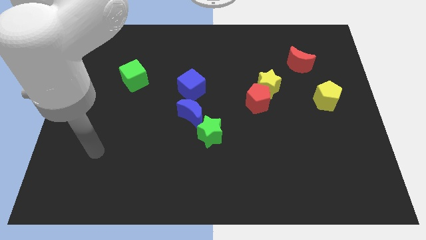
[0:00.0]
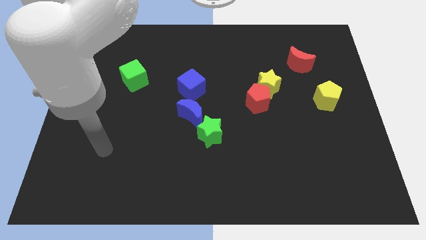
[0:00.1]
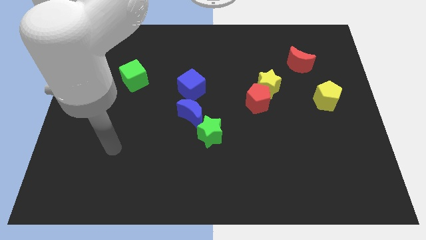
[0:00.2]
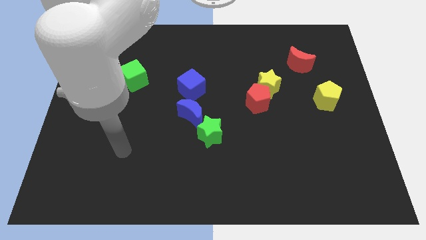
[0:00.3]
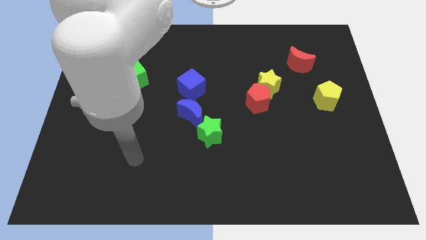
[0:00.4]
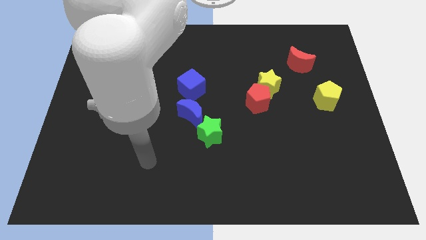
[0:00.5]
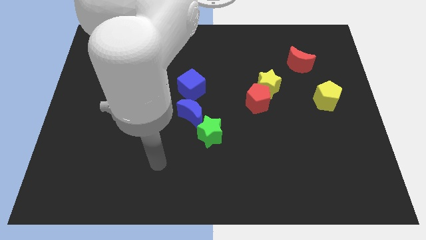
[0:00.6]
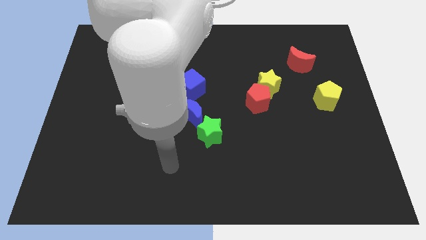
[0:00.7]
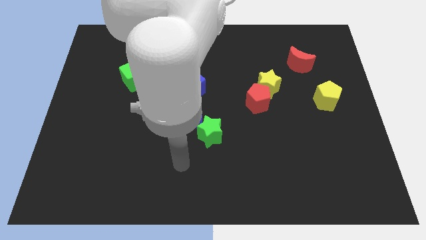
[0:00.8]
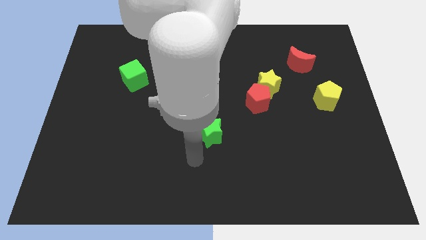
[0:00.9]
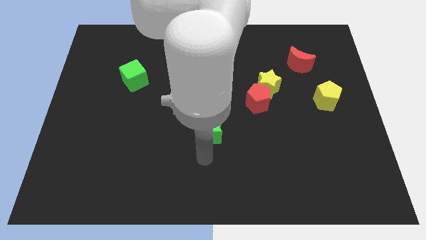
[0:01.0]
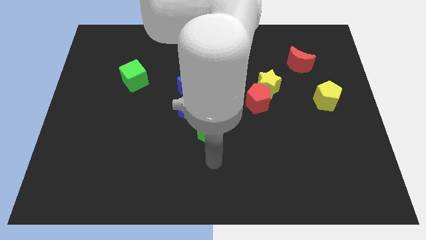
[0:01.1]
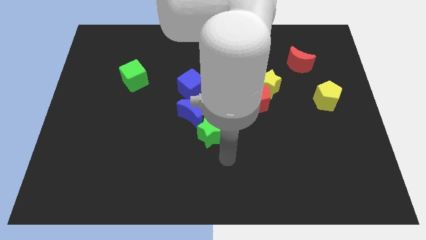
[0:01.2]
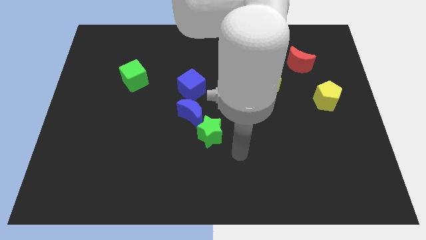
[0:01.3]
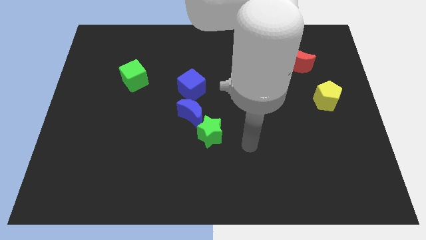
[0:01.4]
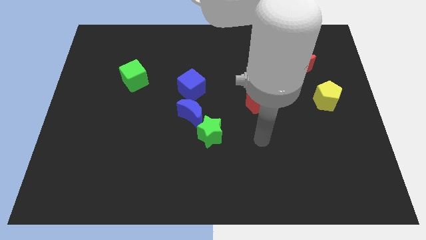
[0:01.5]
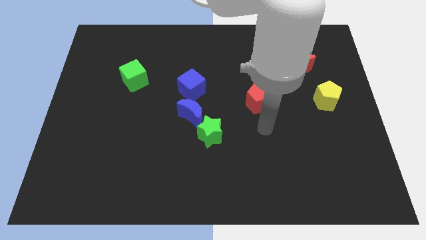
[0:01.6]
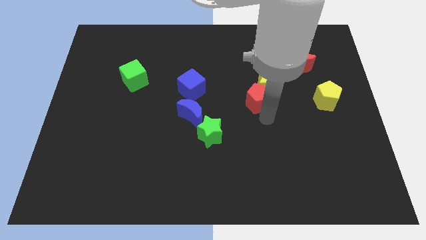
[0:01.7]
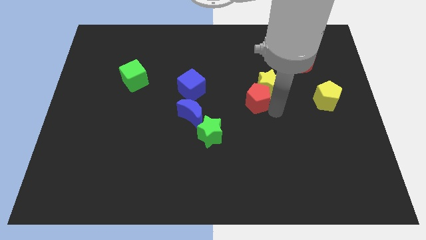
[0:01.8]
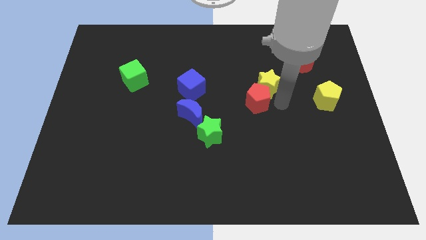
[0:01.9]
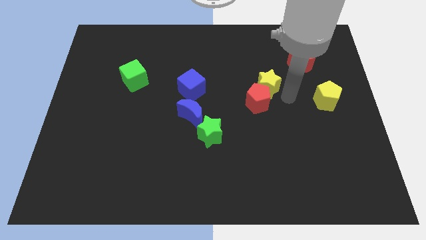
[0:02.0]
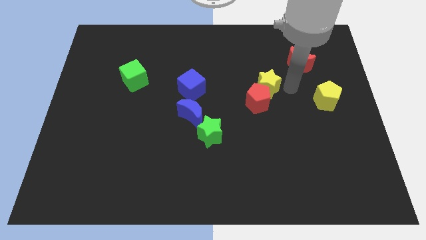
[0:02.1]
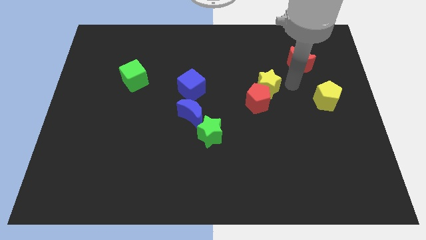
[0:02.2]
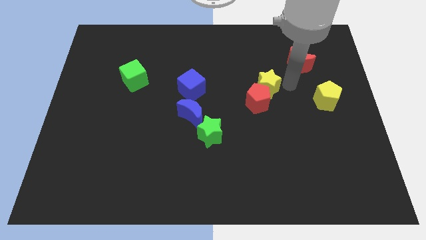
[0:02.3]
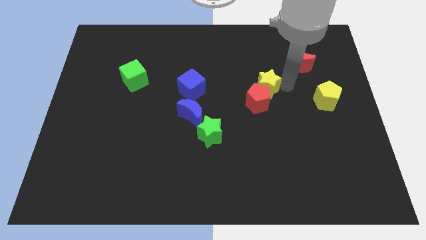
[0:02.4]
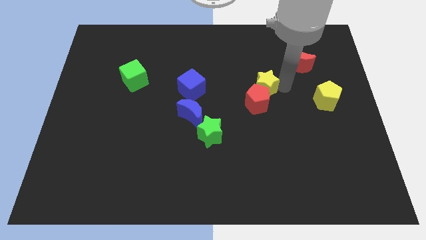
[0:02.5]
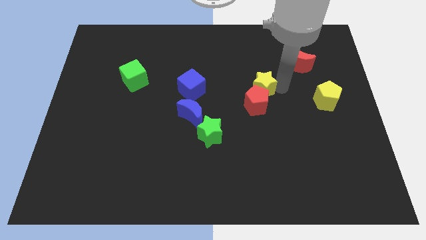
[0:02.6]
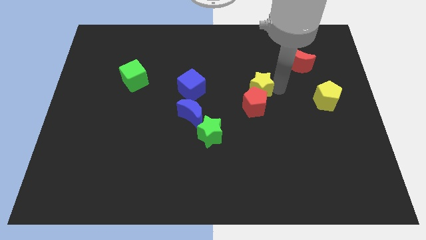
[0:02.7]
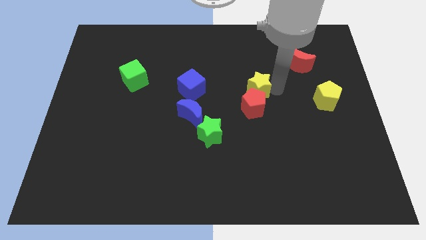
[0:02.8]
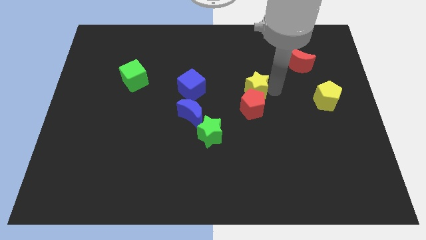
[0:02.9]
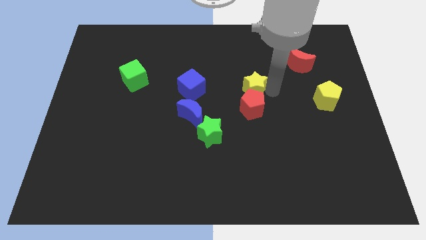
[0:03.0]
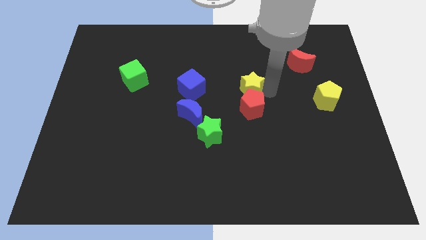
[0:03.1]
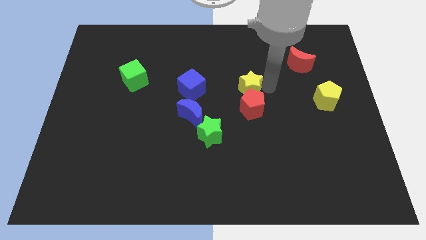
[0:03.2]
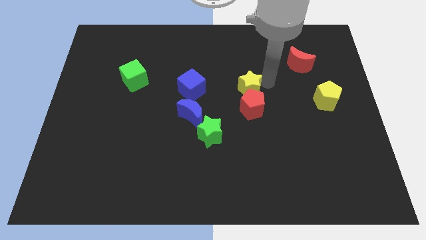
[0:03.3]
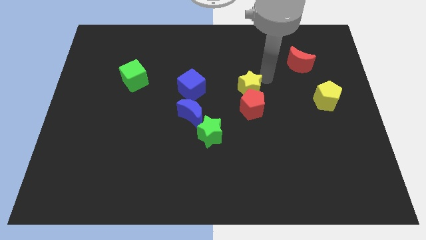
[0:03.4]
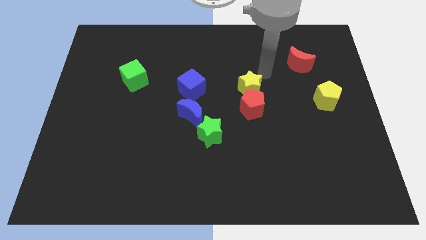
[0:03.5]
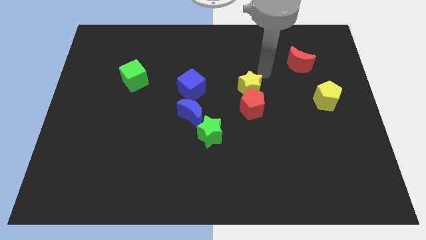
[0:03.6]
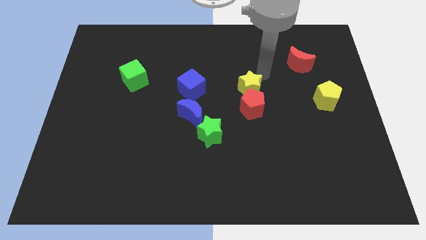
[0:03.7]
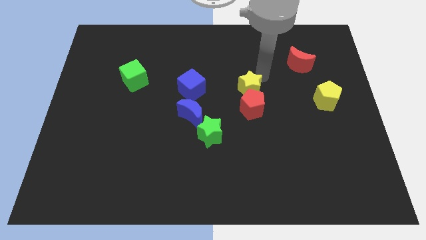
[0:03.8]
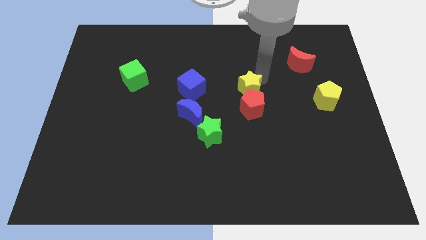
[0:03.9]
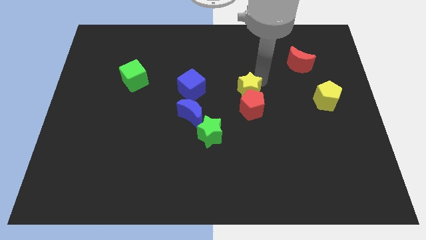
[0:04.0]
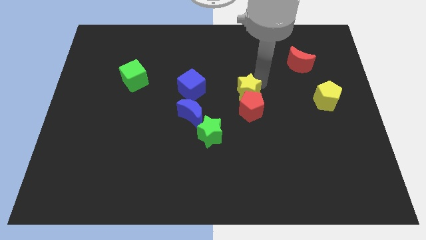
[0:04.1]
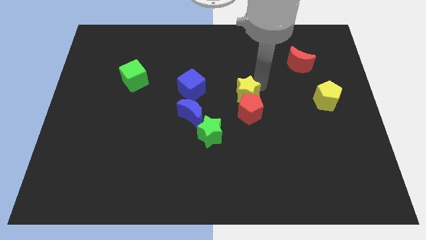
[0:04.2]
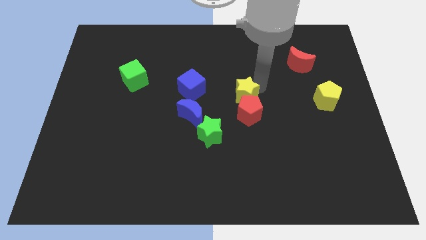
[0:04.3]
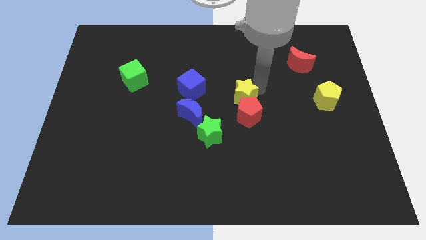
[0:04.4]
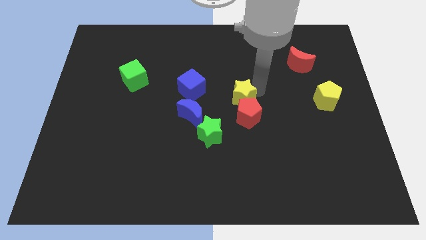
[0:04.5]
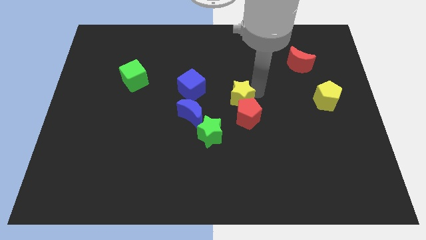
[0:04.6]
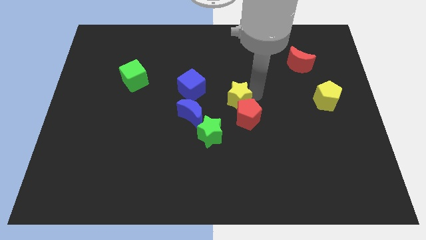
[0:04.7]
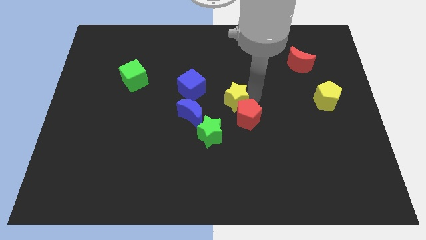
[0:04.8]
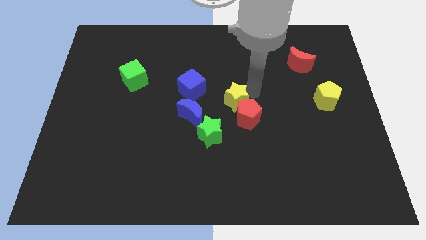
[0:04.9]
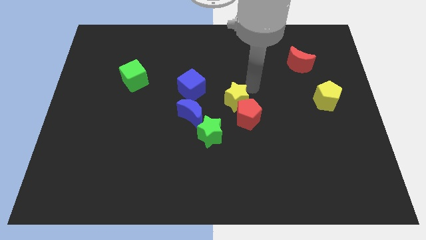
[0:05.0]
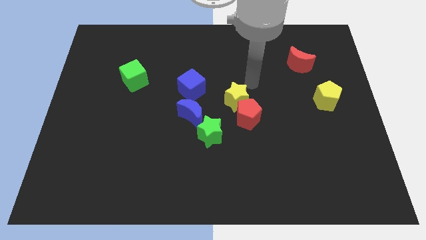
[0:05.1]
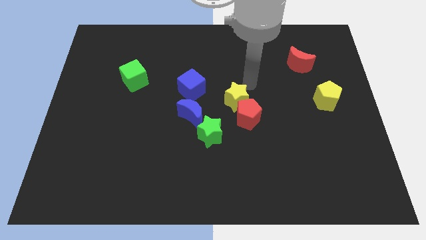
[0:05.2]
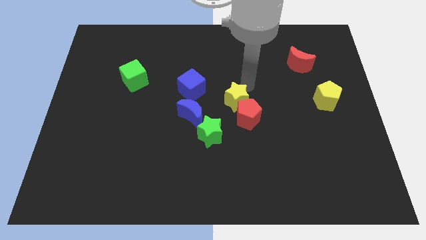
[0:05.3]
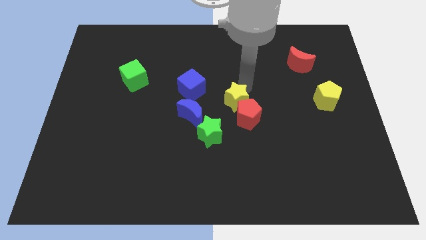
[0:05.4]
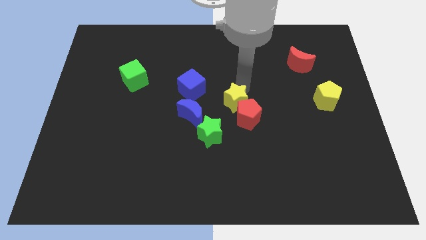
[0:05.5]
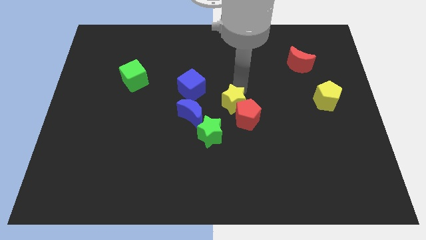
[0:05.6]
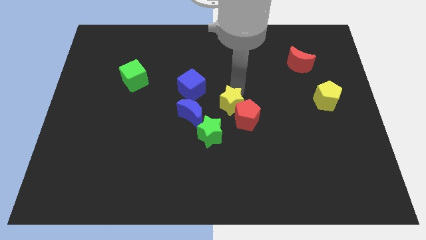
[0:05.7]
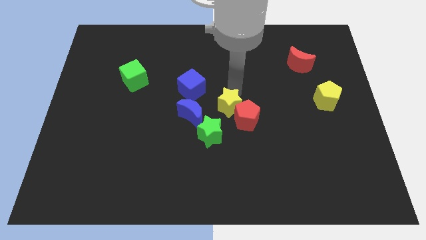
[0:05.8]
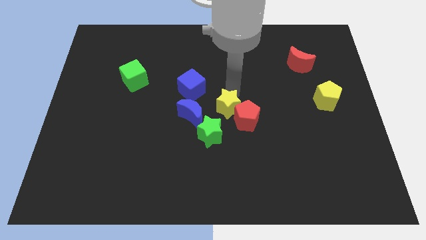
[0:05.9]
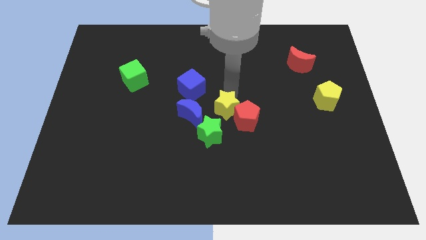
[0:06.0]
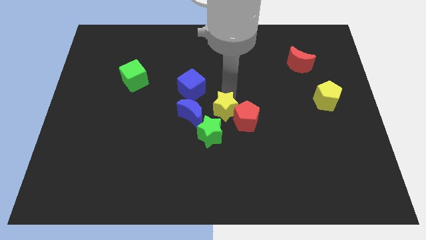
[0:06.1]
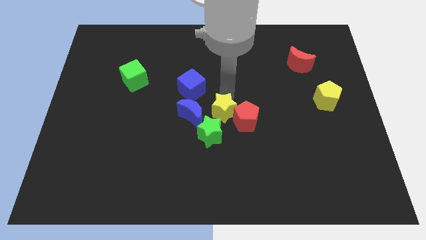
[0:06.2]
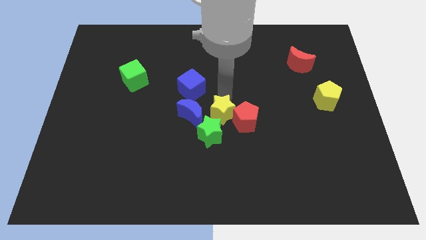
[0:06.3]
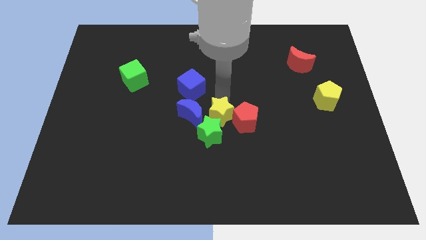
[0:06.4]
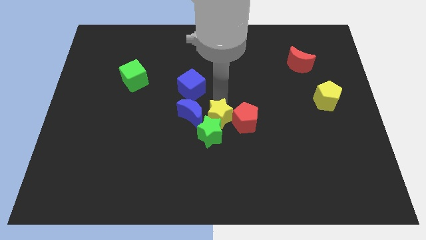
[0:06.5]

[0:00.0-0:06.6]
move the yellow star to the green star

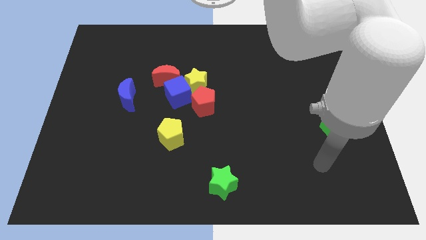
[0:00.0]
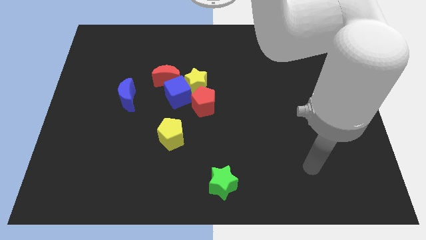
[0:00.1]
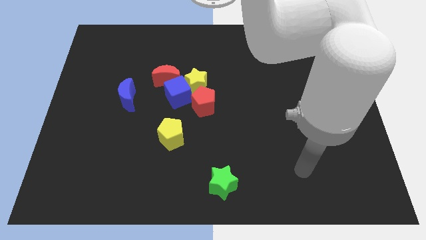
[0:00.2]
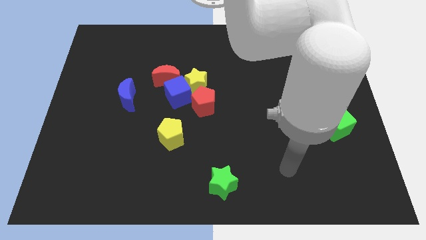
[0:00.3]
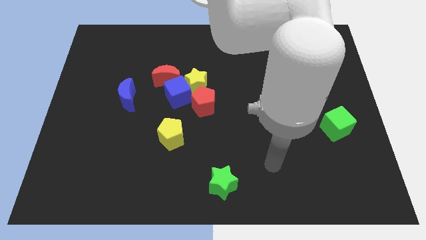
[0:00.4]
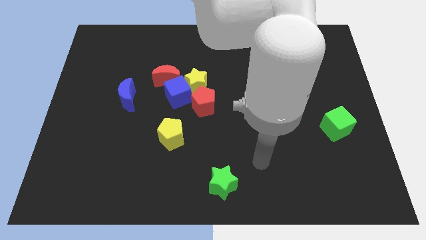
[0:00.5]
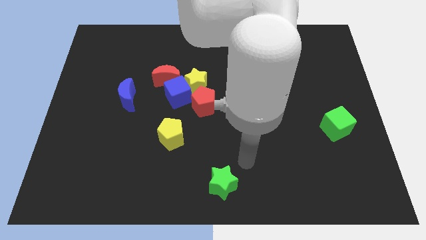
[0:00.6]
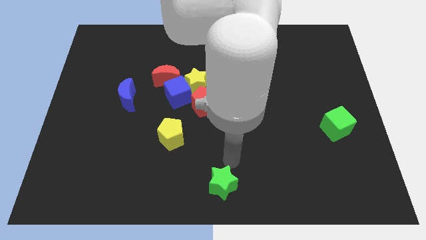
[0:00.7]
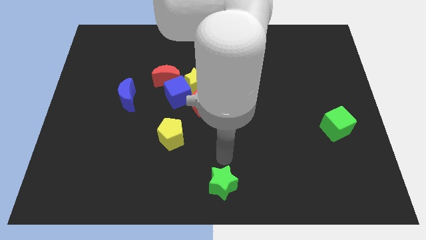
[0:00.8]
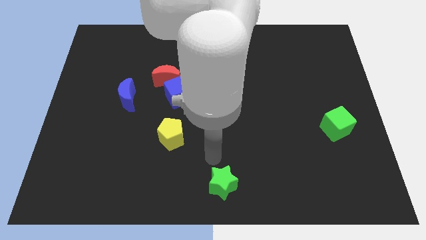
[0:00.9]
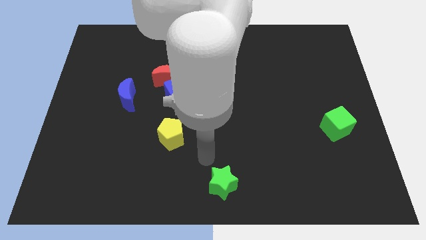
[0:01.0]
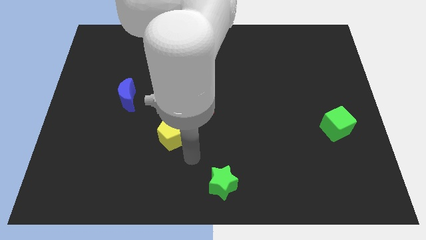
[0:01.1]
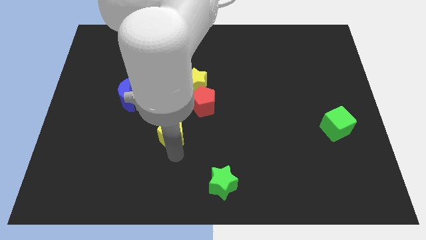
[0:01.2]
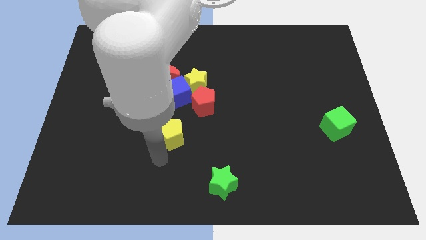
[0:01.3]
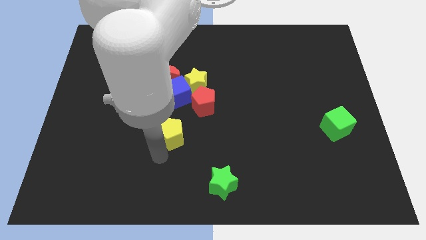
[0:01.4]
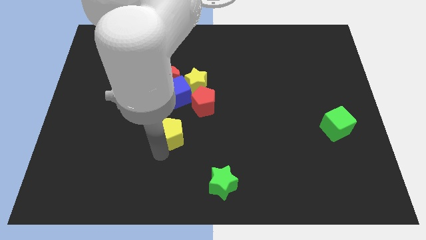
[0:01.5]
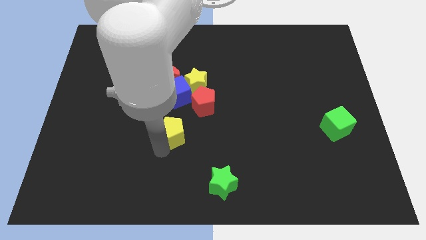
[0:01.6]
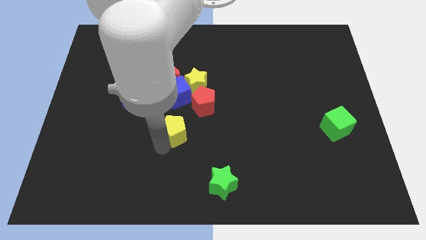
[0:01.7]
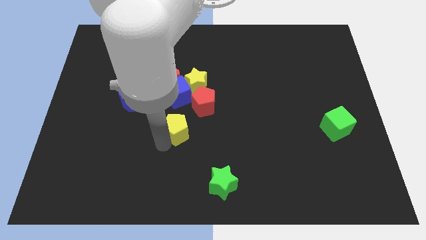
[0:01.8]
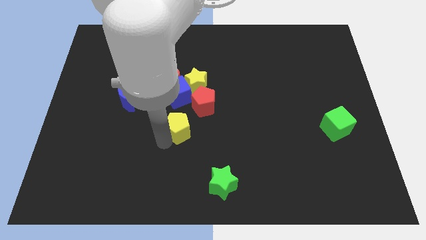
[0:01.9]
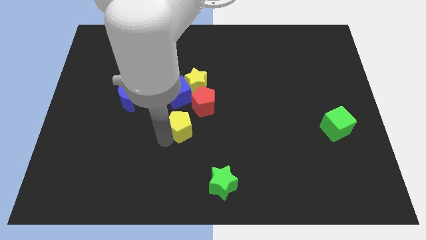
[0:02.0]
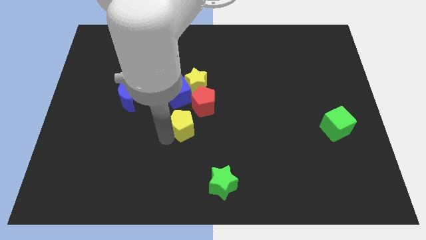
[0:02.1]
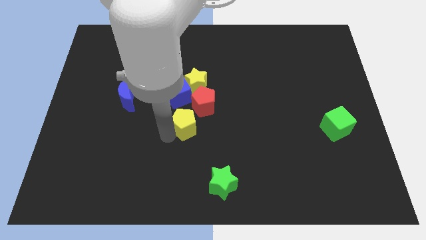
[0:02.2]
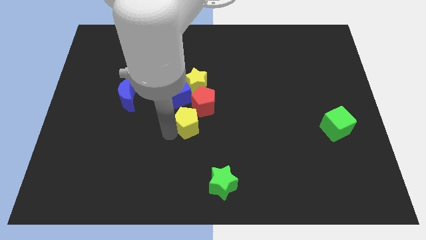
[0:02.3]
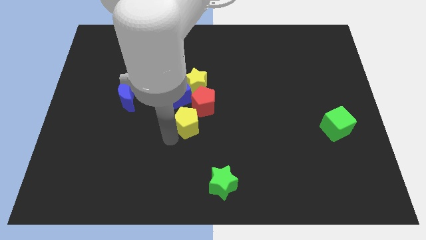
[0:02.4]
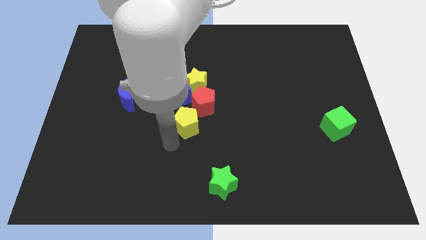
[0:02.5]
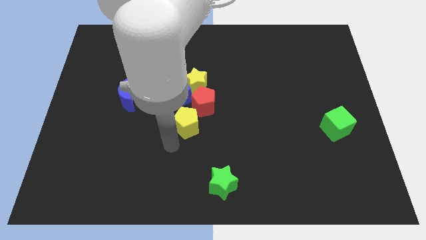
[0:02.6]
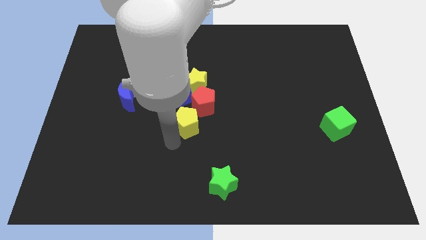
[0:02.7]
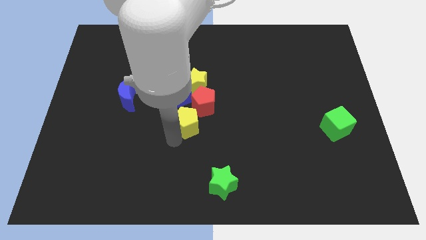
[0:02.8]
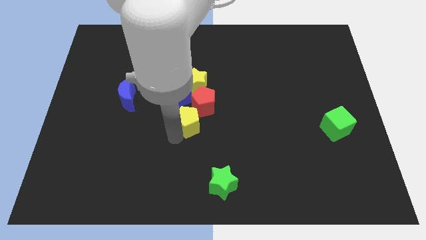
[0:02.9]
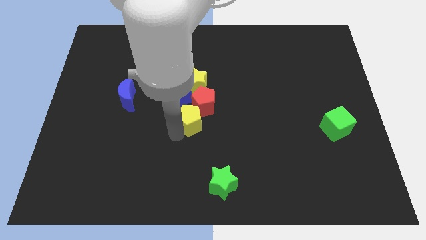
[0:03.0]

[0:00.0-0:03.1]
put the yellow pentagon to the red pentagon
